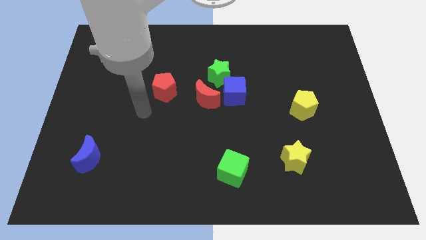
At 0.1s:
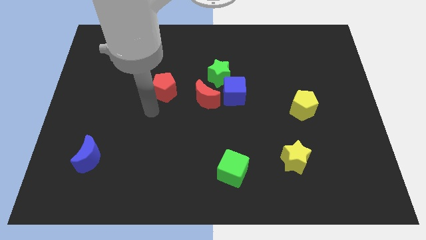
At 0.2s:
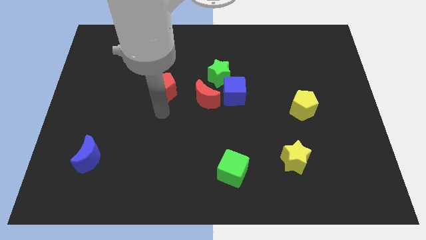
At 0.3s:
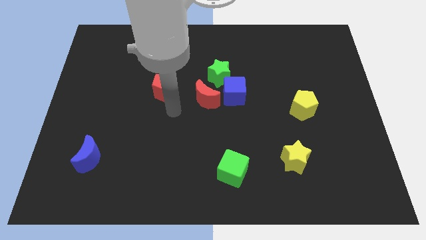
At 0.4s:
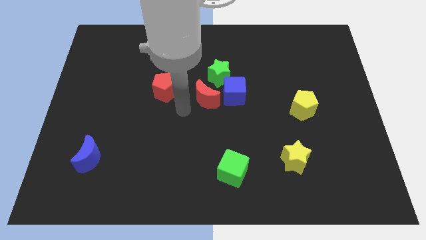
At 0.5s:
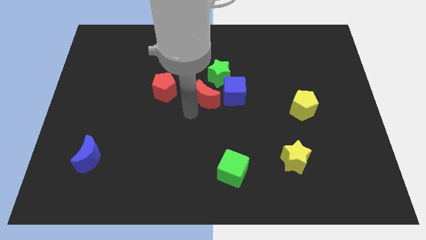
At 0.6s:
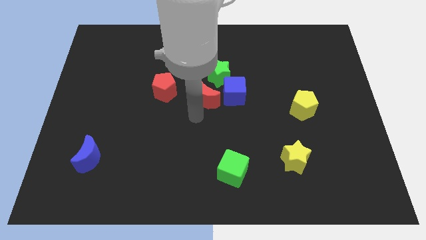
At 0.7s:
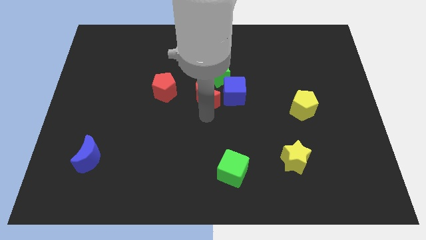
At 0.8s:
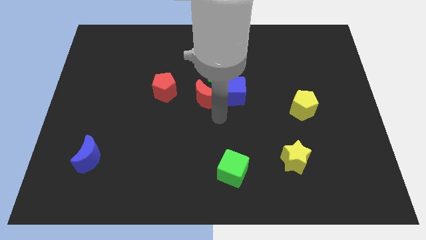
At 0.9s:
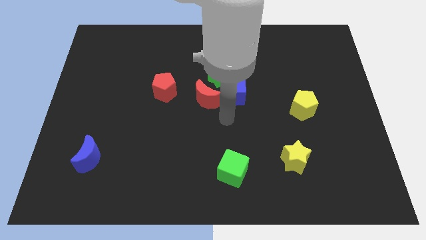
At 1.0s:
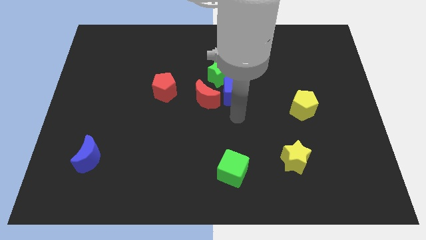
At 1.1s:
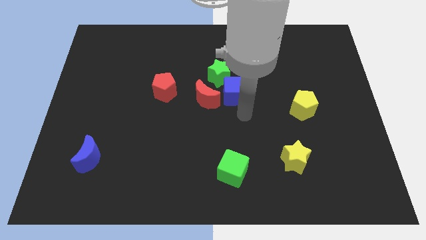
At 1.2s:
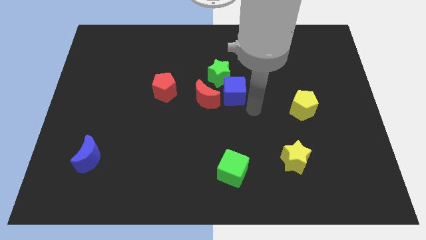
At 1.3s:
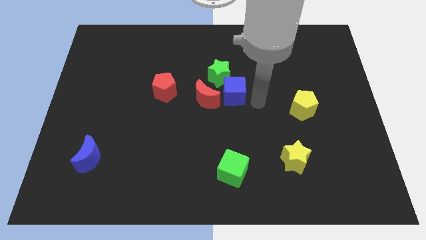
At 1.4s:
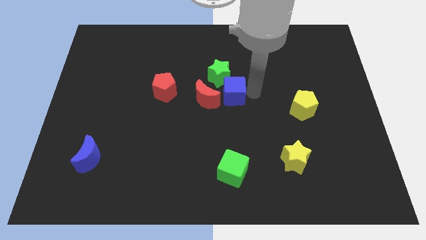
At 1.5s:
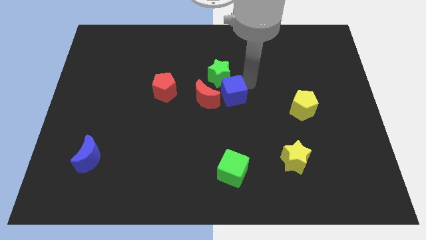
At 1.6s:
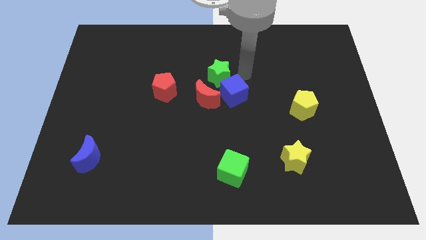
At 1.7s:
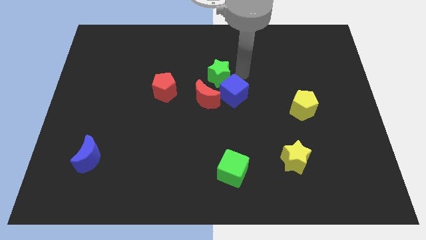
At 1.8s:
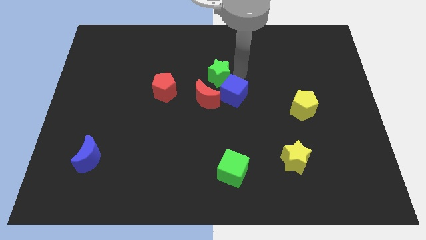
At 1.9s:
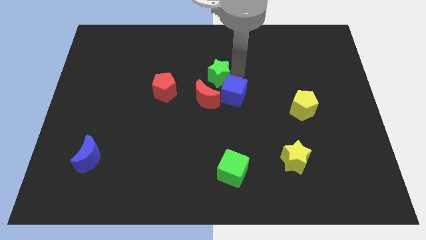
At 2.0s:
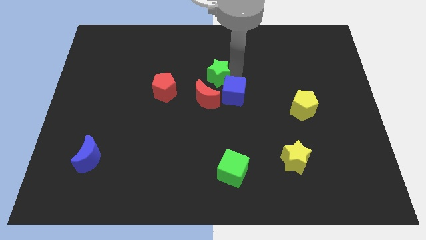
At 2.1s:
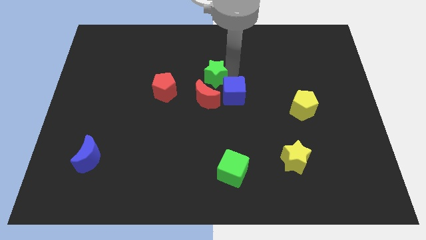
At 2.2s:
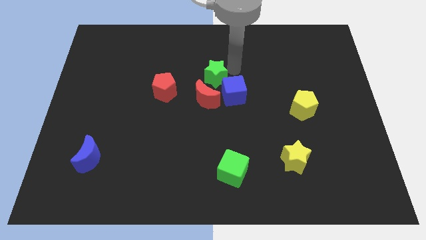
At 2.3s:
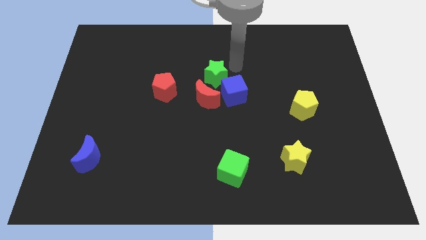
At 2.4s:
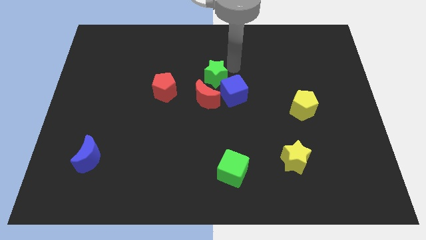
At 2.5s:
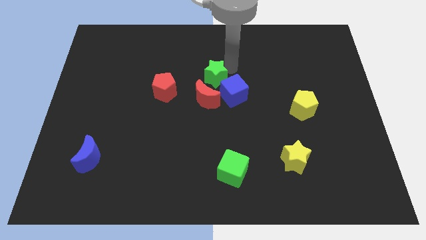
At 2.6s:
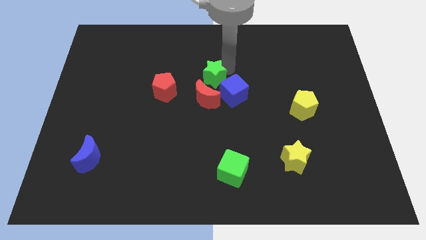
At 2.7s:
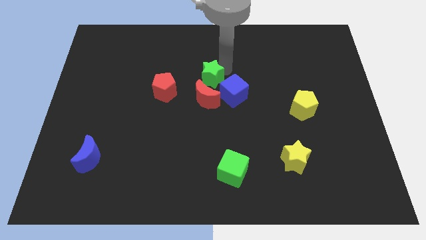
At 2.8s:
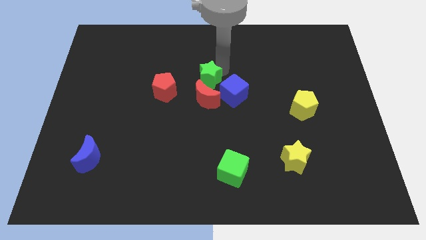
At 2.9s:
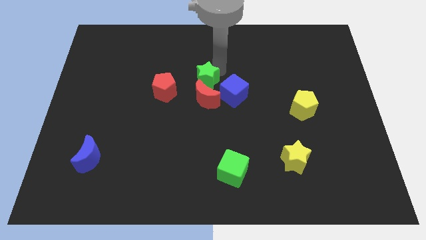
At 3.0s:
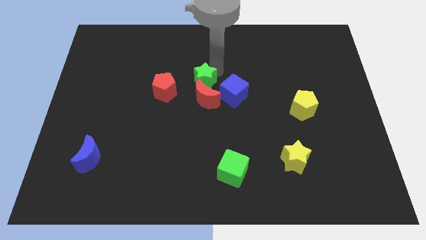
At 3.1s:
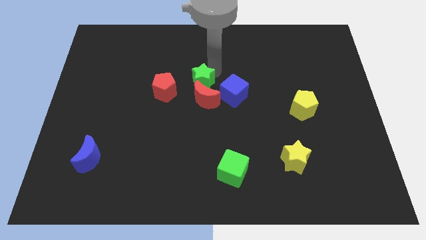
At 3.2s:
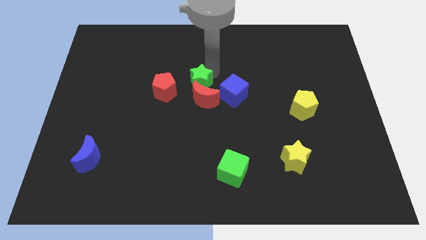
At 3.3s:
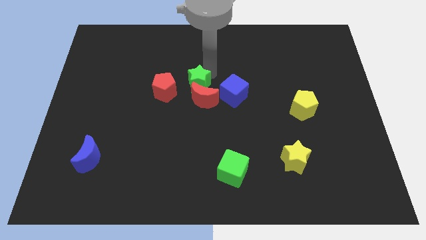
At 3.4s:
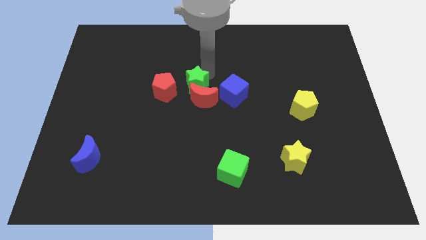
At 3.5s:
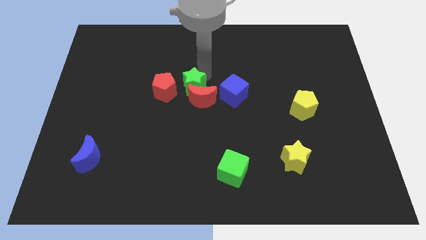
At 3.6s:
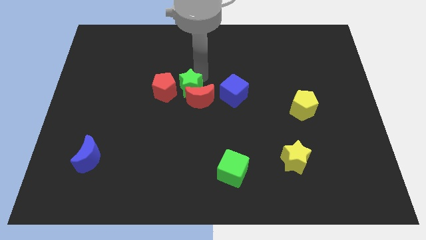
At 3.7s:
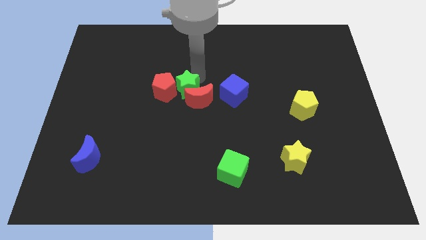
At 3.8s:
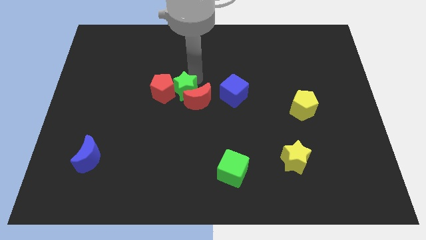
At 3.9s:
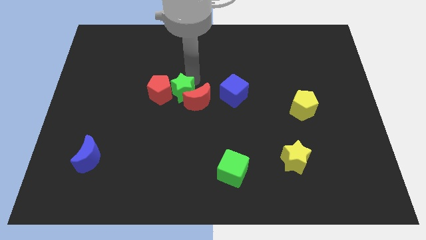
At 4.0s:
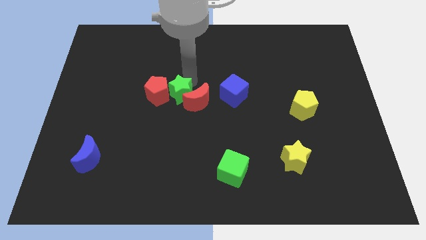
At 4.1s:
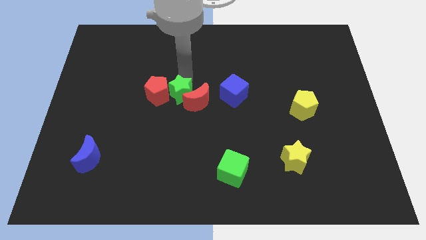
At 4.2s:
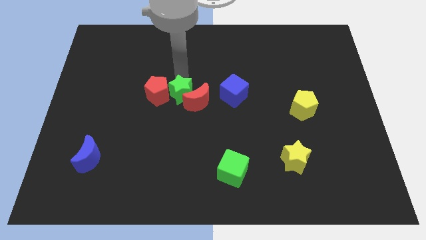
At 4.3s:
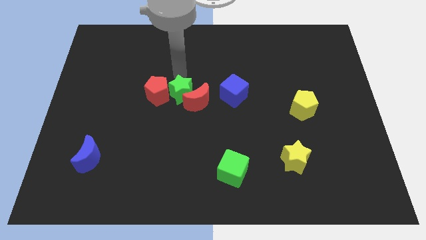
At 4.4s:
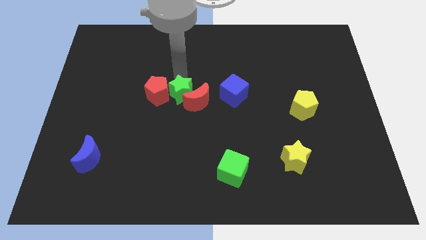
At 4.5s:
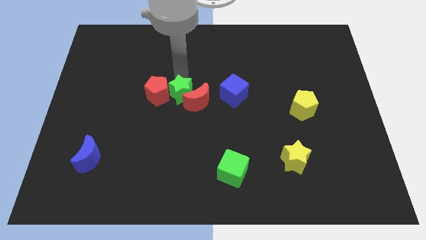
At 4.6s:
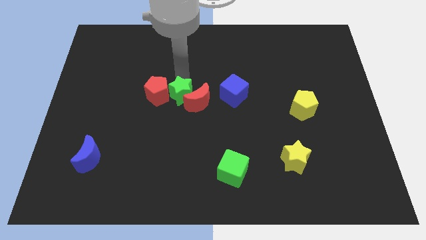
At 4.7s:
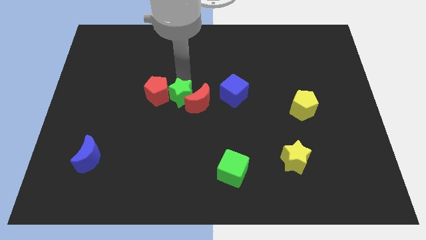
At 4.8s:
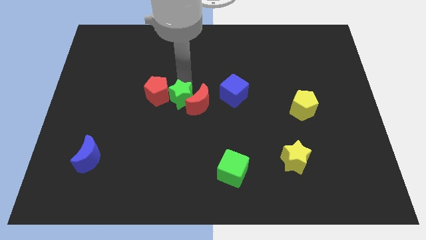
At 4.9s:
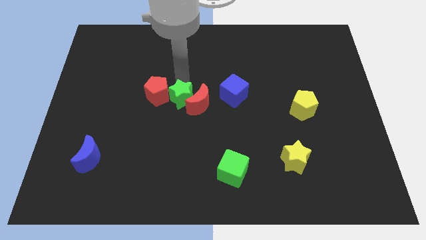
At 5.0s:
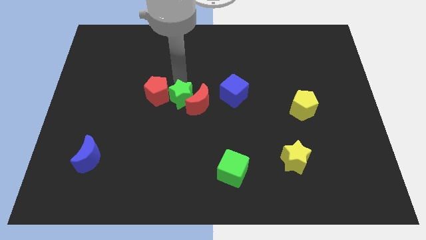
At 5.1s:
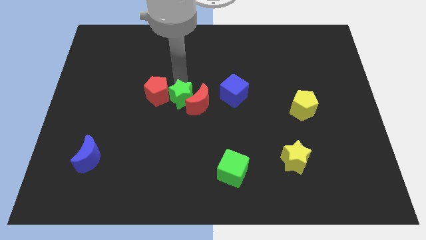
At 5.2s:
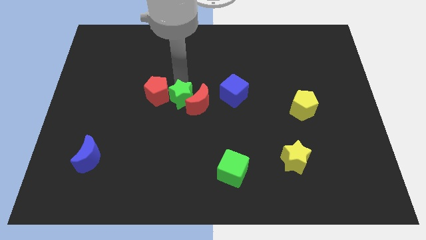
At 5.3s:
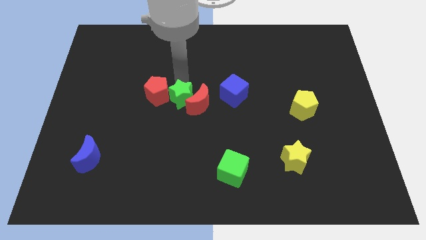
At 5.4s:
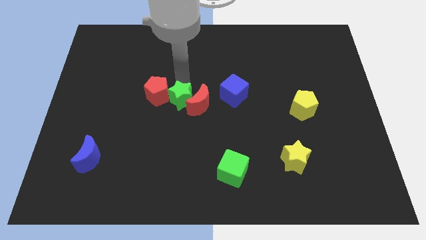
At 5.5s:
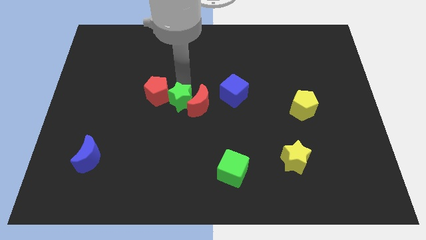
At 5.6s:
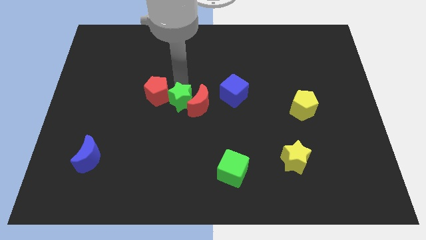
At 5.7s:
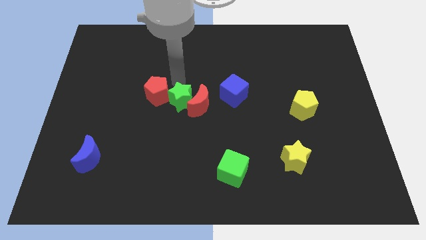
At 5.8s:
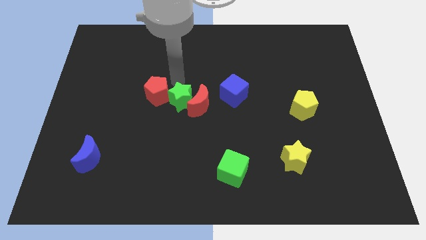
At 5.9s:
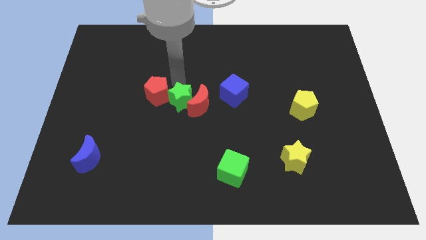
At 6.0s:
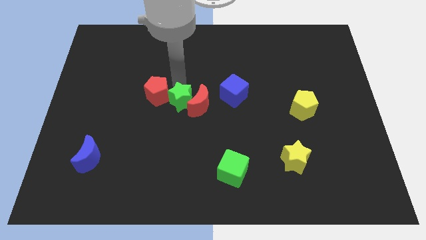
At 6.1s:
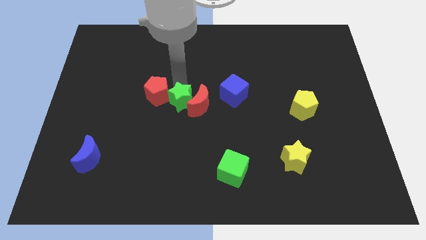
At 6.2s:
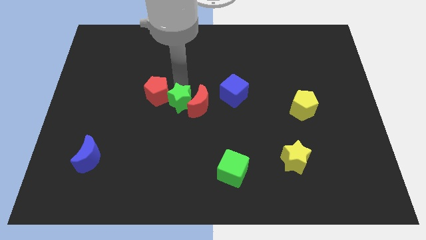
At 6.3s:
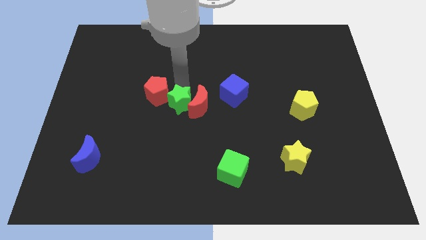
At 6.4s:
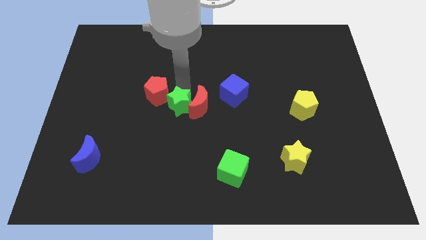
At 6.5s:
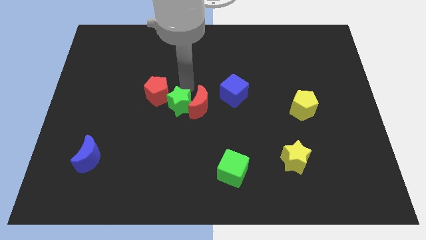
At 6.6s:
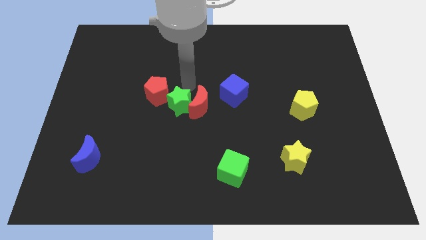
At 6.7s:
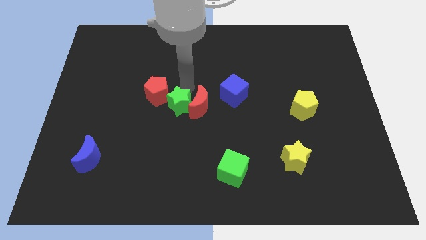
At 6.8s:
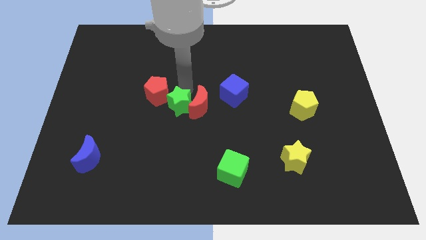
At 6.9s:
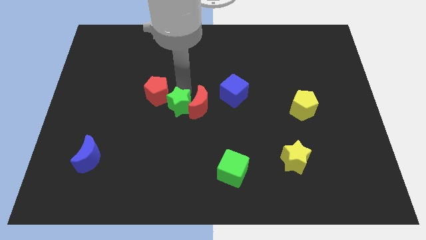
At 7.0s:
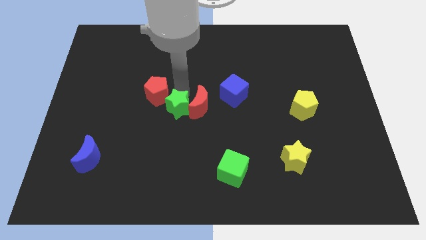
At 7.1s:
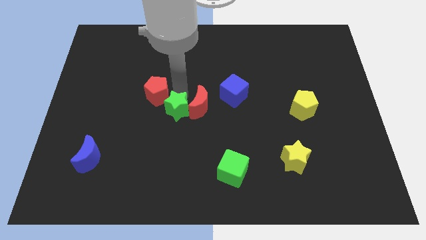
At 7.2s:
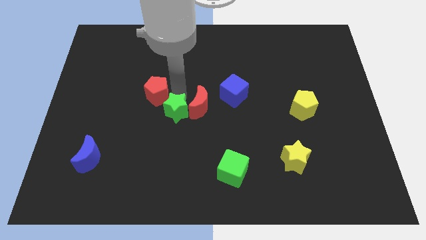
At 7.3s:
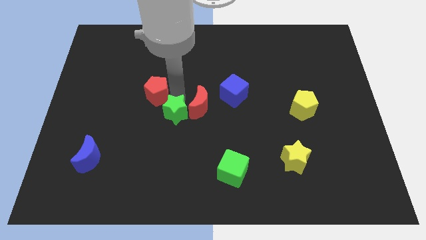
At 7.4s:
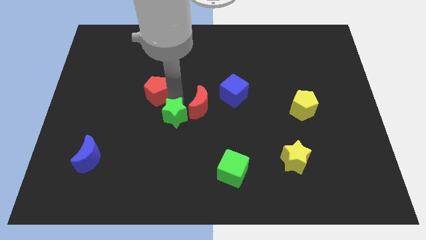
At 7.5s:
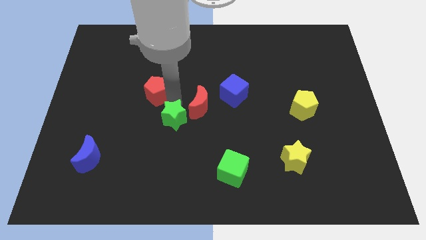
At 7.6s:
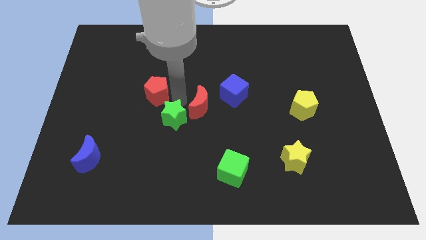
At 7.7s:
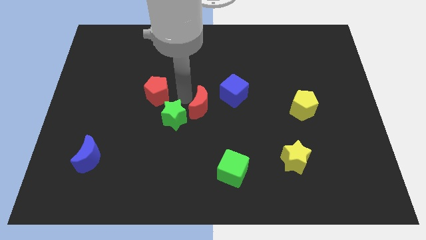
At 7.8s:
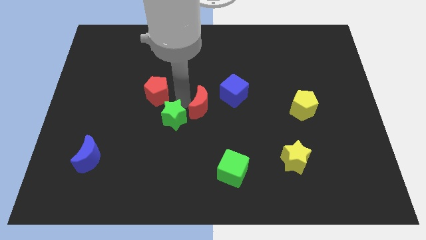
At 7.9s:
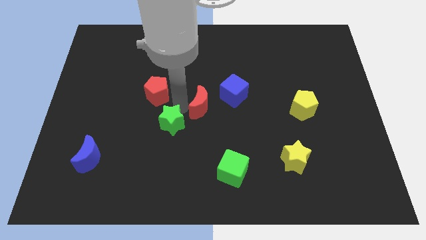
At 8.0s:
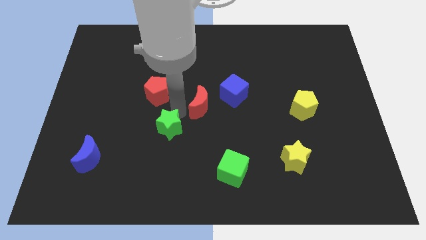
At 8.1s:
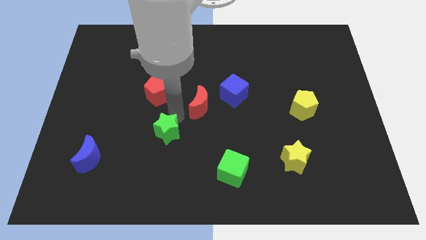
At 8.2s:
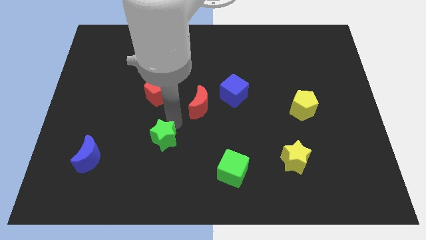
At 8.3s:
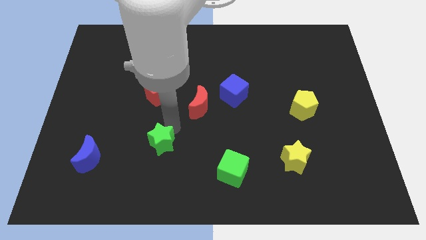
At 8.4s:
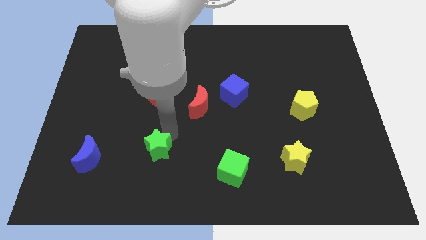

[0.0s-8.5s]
move the green star right of the blue moon
